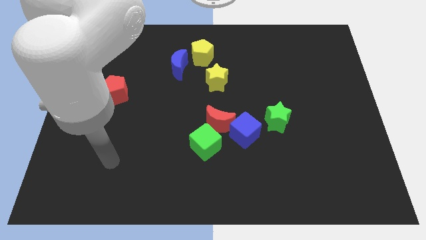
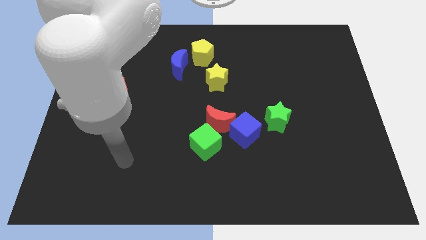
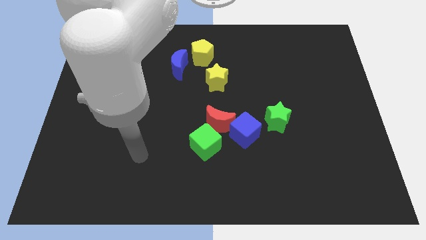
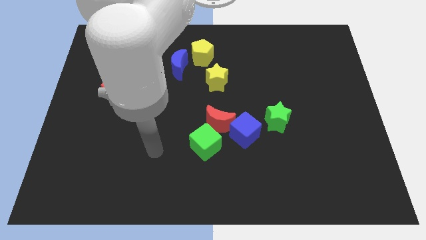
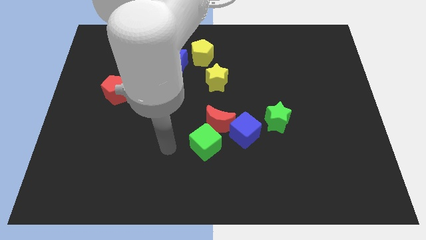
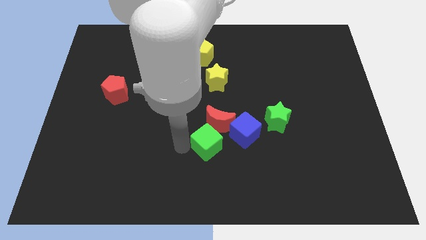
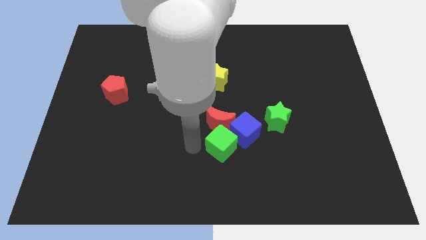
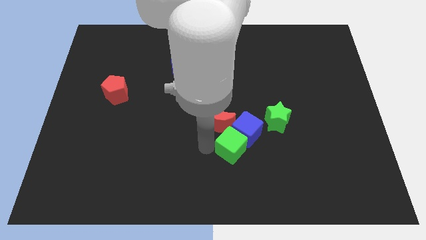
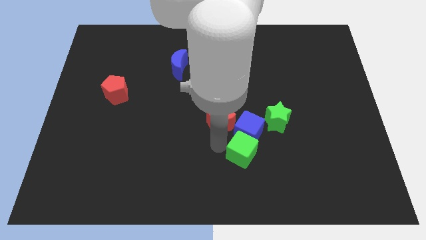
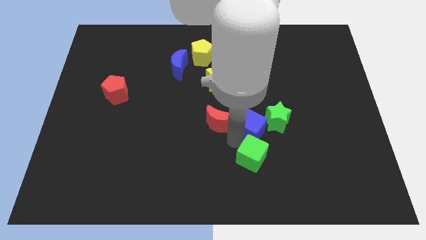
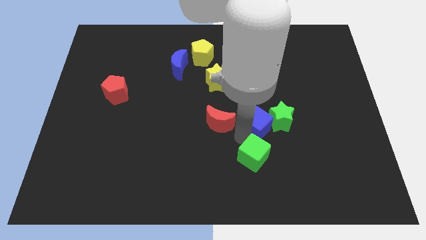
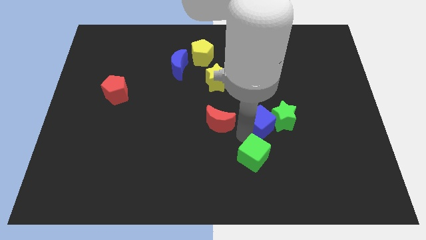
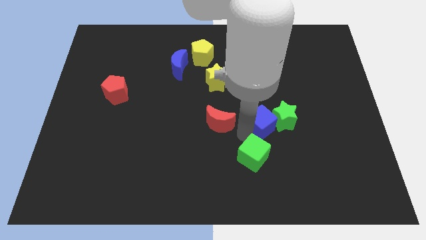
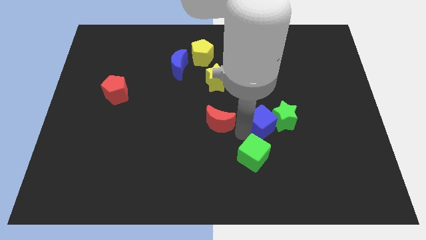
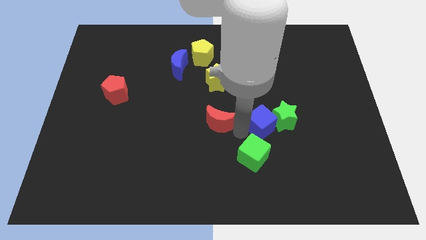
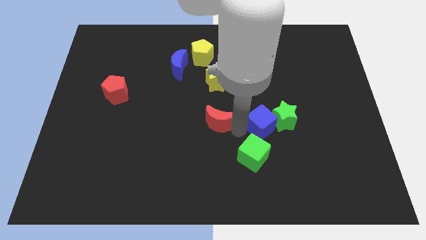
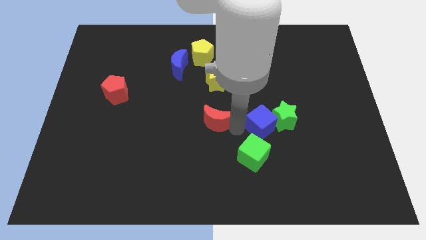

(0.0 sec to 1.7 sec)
pull the red moon apart from the blue cube and green cube

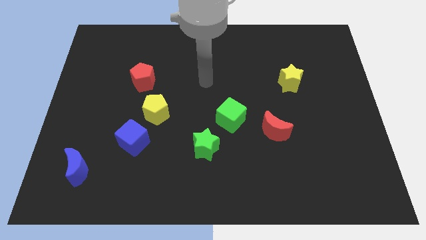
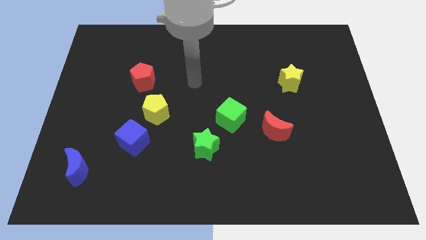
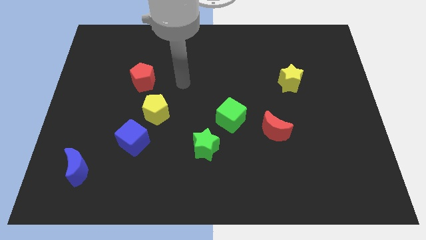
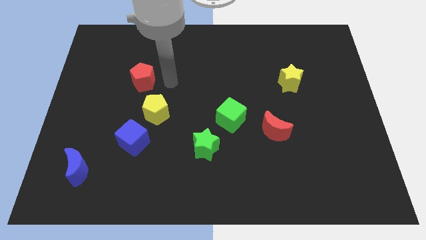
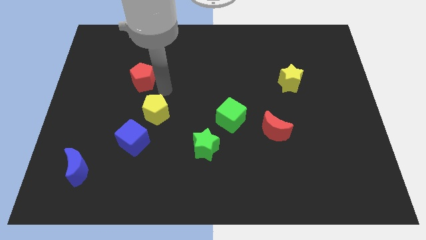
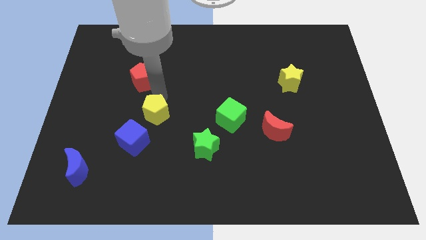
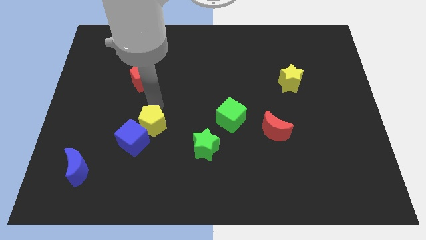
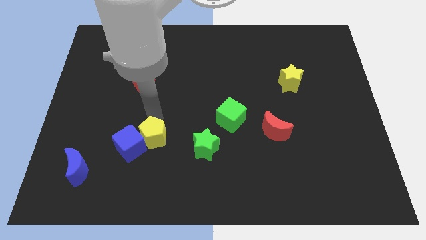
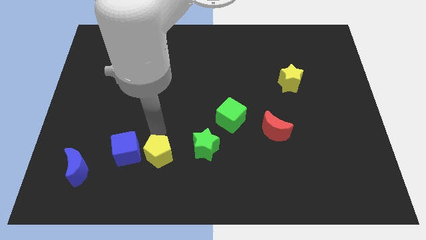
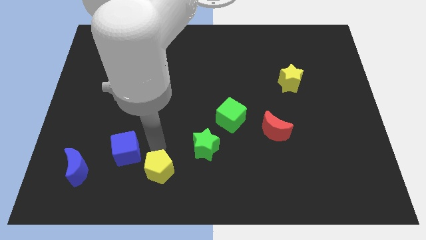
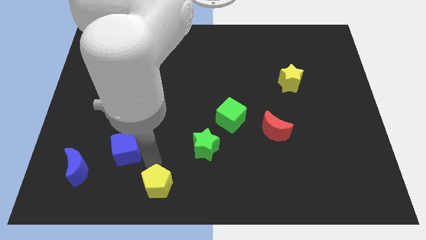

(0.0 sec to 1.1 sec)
separate the blue cube from the yellow pentagon

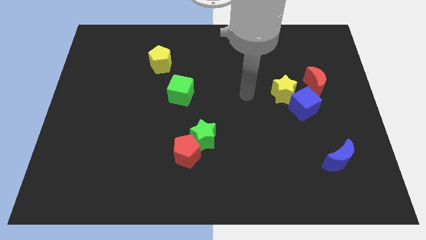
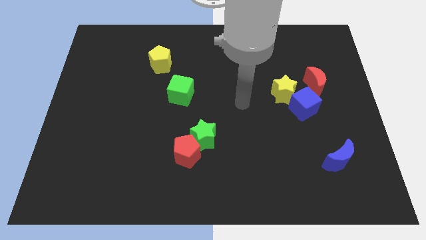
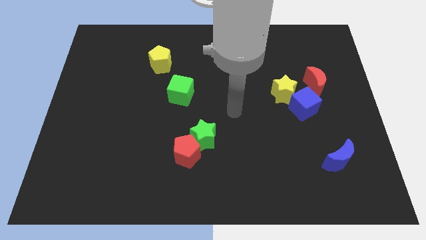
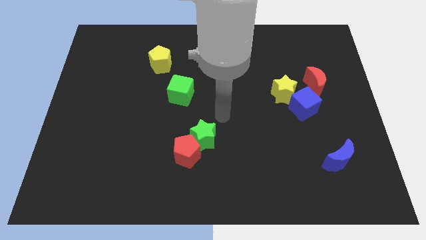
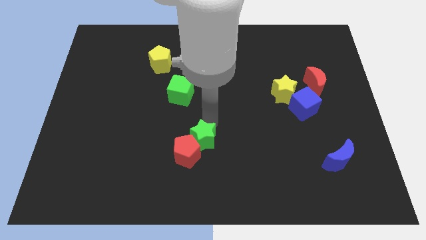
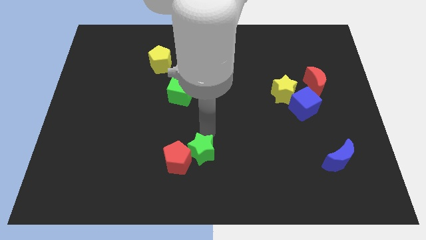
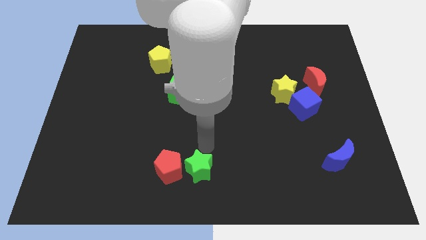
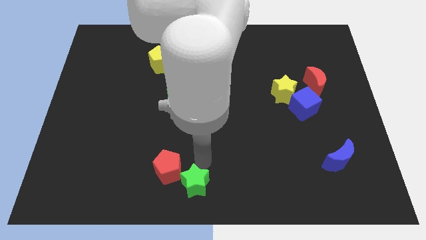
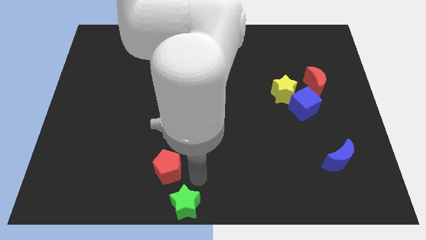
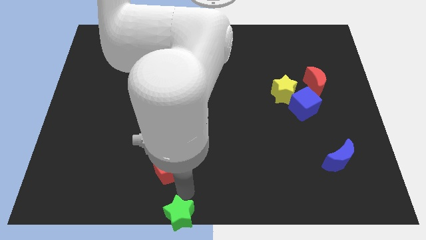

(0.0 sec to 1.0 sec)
move the red pentagon away from the green star

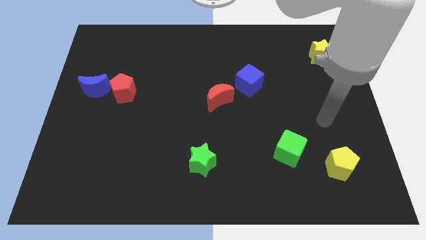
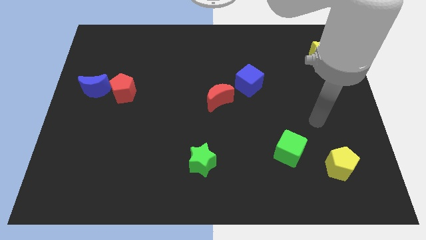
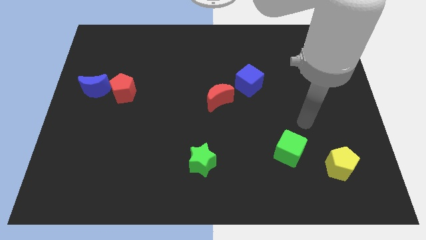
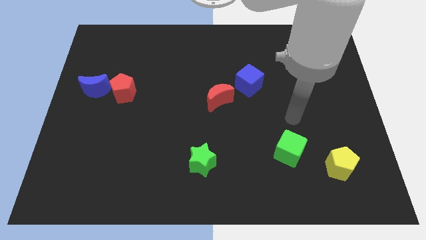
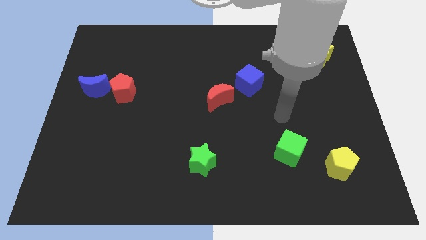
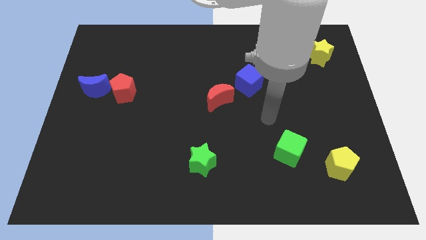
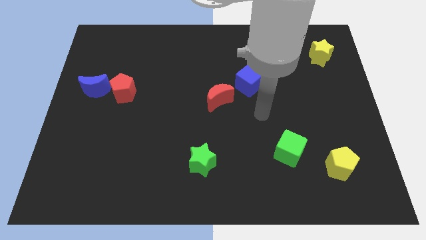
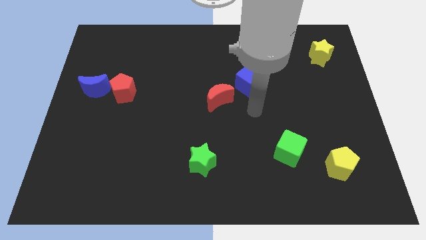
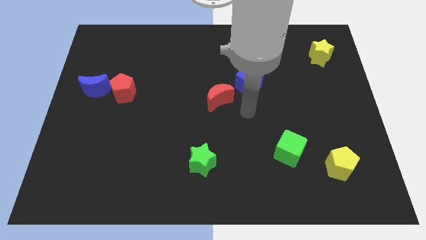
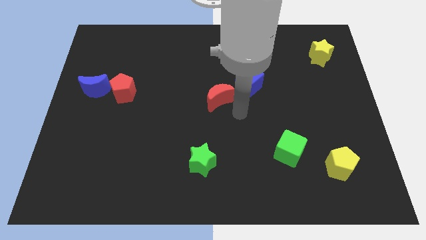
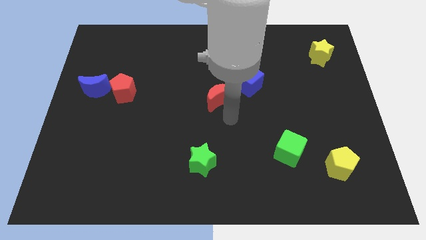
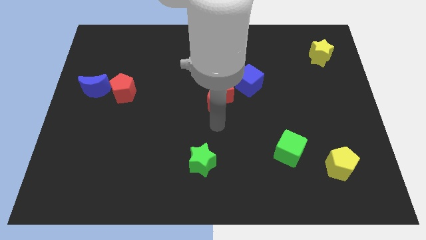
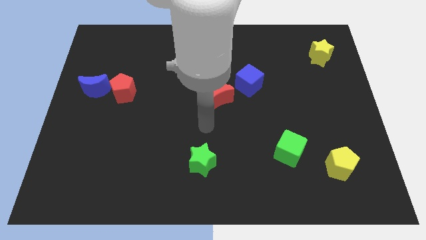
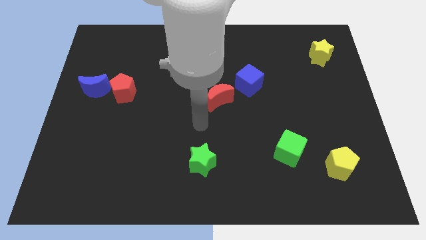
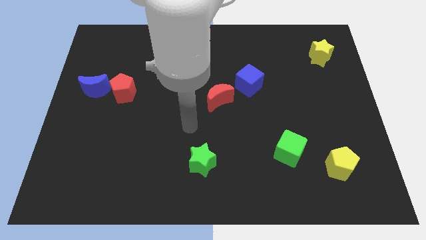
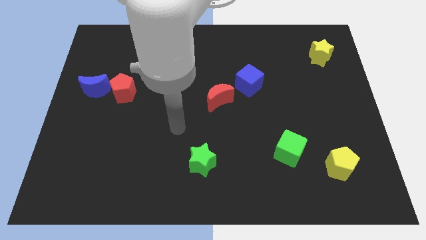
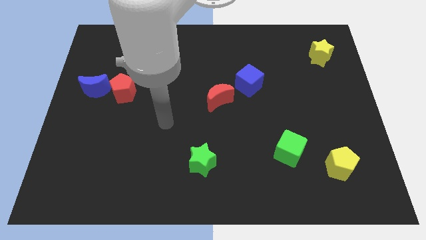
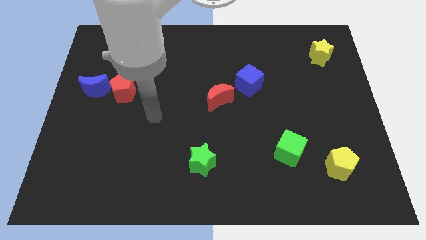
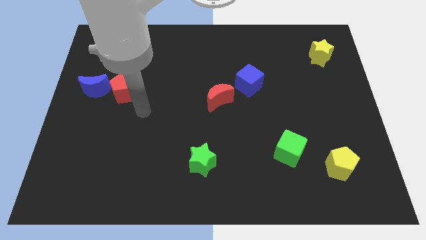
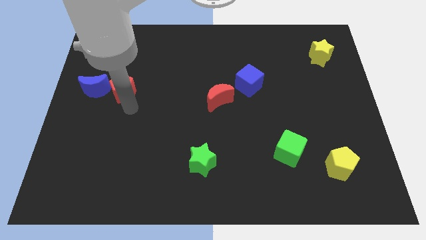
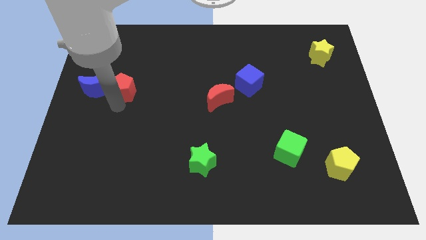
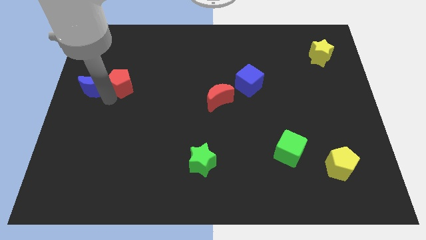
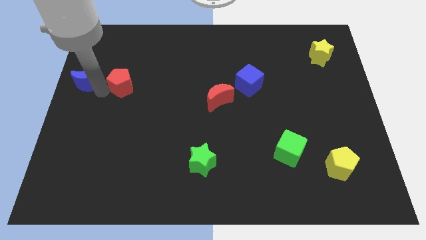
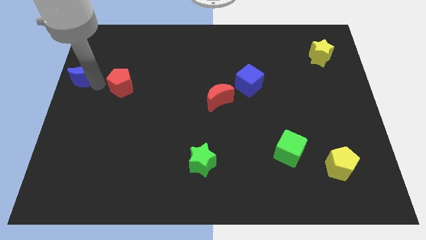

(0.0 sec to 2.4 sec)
pull the red pentagon apart from the blue moon

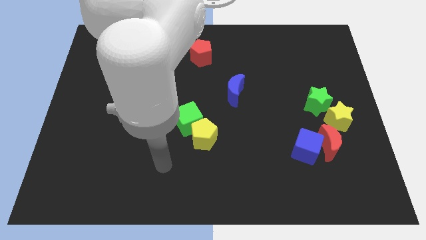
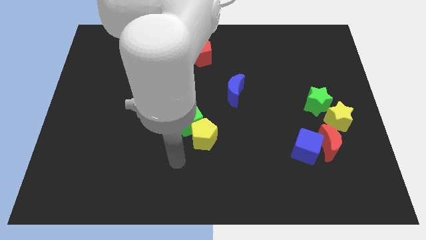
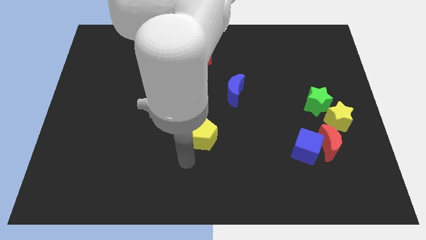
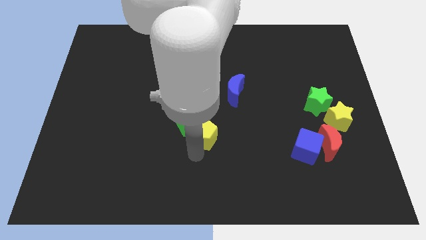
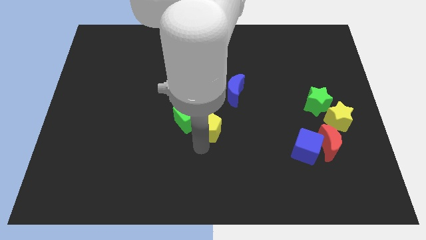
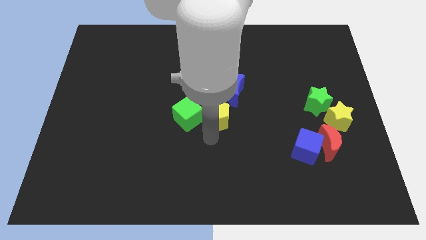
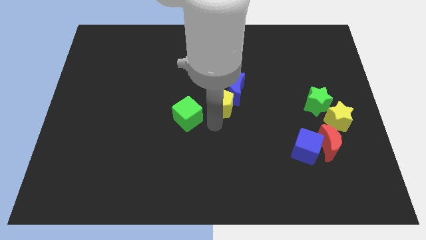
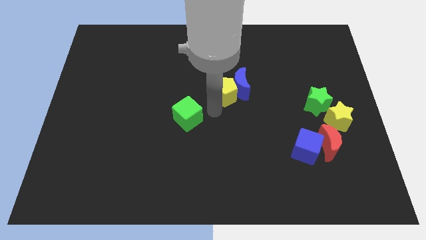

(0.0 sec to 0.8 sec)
pull the green cube apart from the yellow pentagon

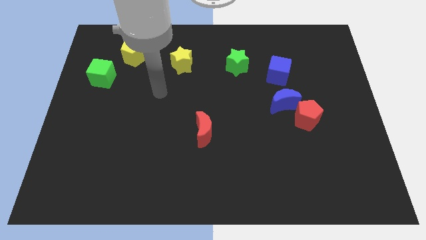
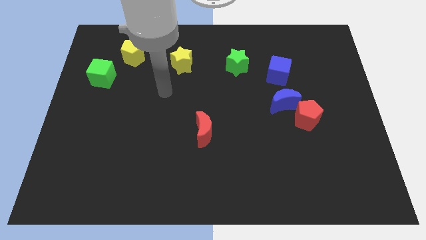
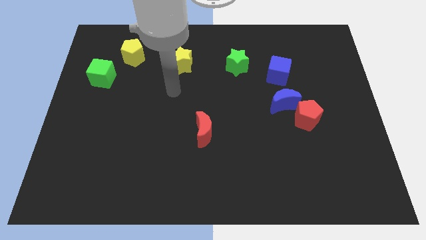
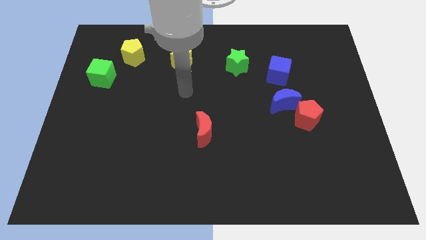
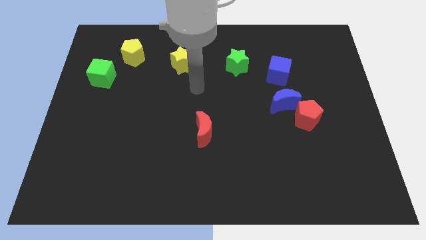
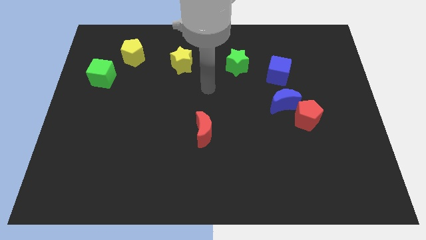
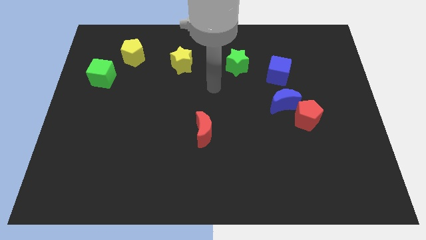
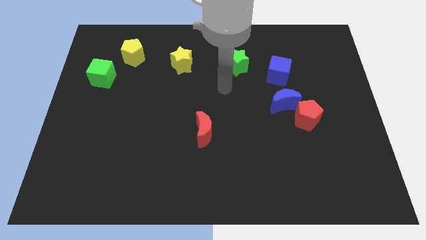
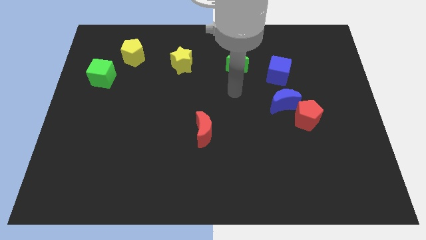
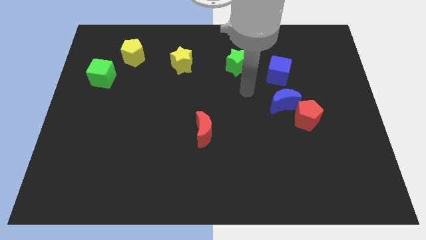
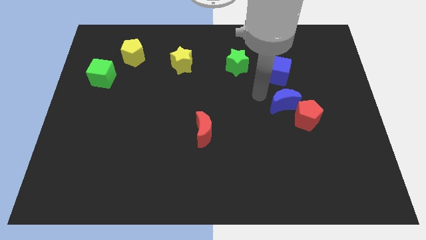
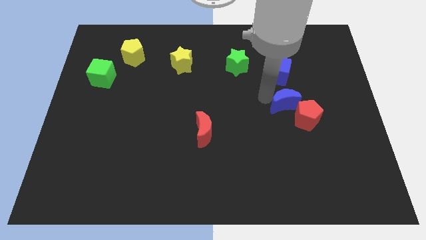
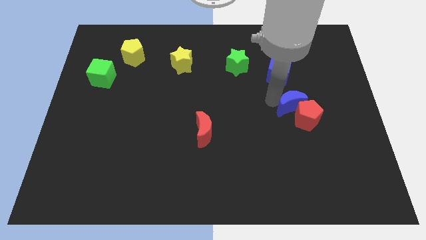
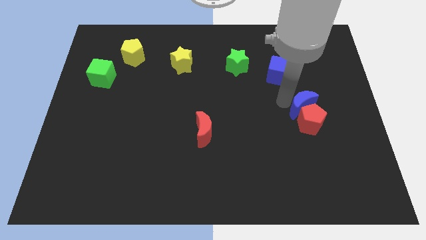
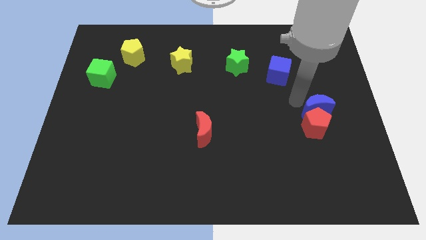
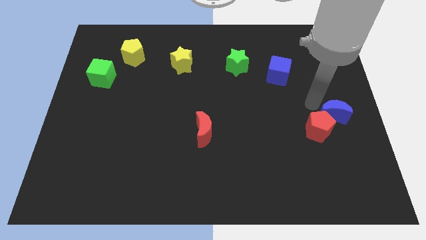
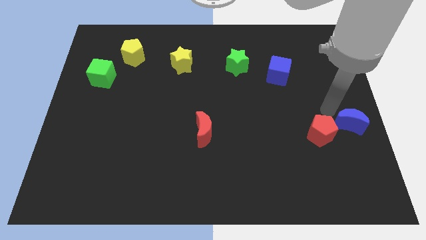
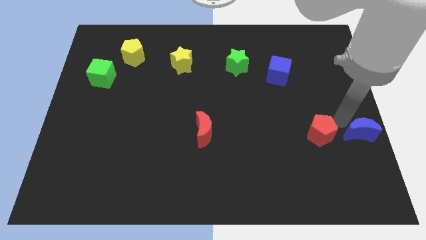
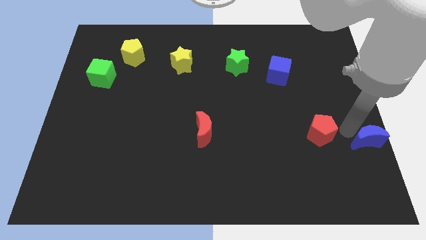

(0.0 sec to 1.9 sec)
separate the red pentagon from the blue moon

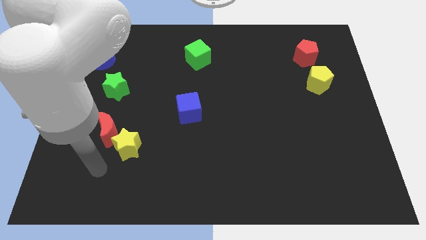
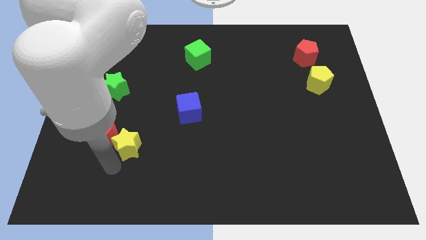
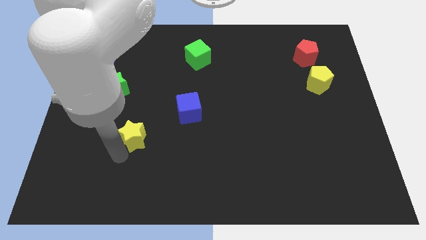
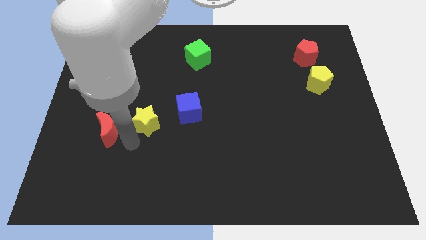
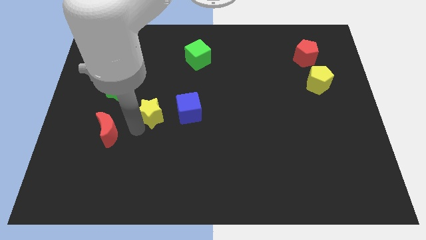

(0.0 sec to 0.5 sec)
pull the red moon apart from the yellow star
